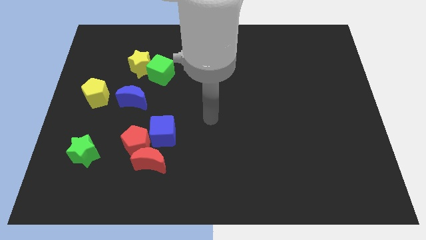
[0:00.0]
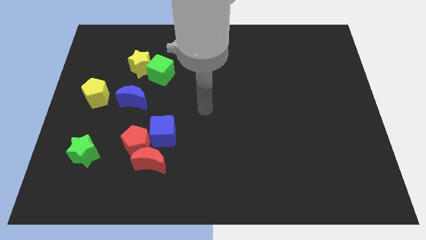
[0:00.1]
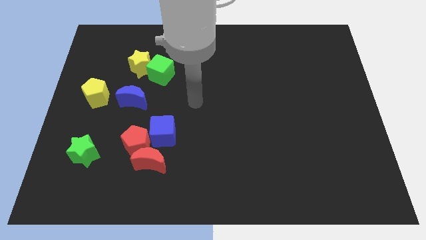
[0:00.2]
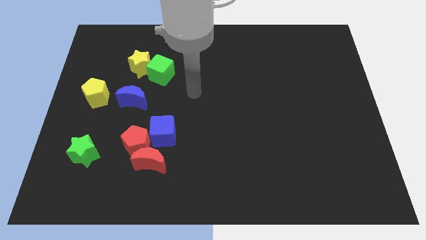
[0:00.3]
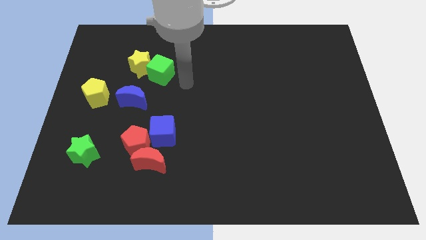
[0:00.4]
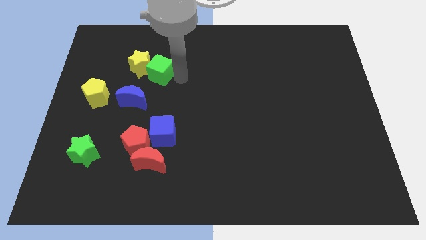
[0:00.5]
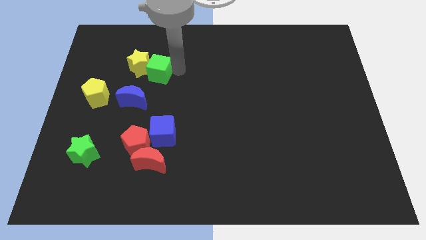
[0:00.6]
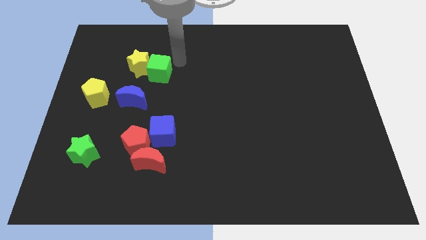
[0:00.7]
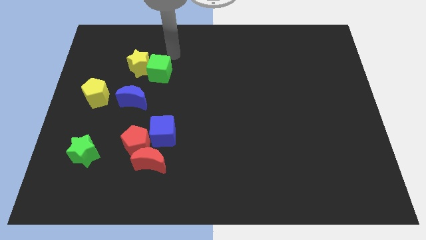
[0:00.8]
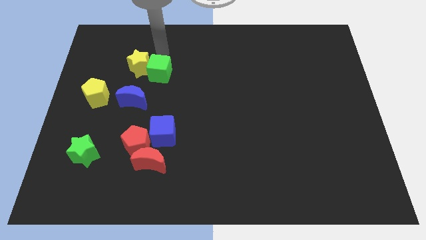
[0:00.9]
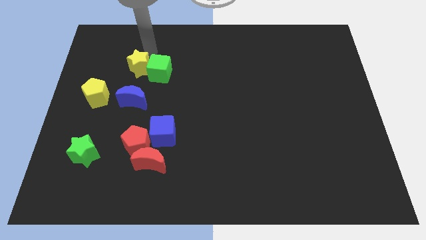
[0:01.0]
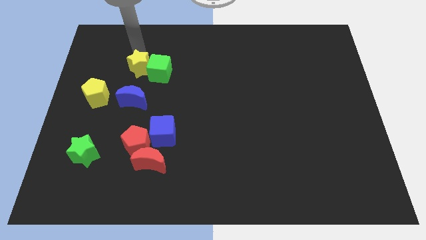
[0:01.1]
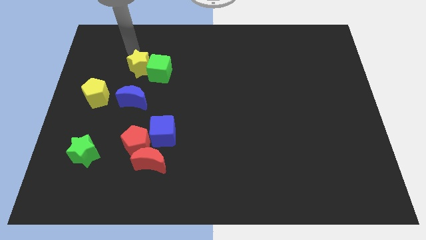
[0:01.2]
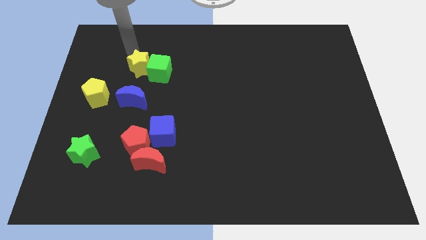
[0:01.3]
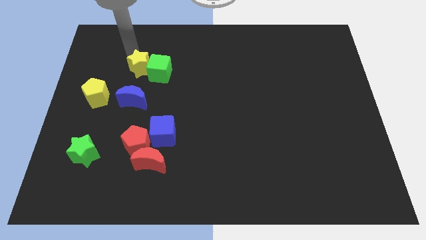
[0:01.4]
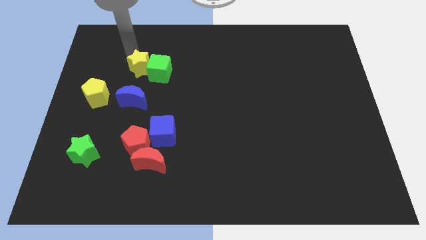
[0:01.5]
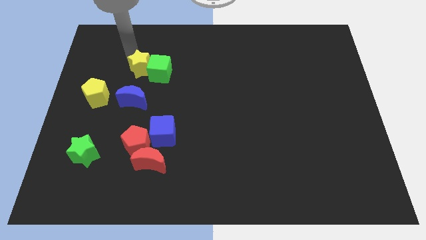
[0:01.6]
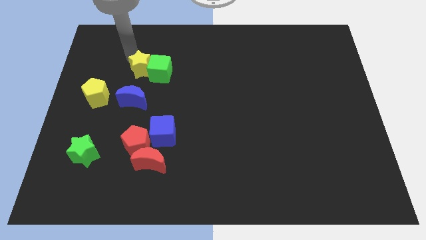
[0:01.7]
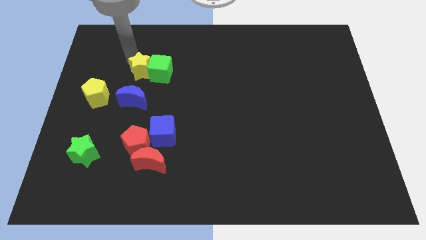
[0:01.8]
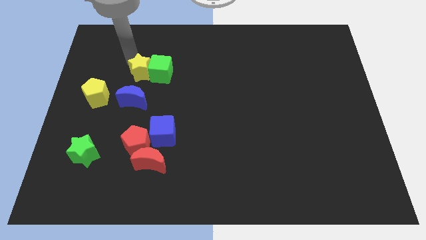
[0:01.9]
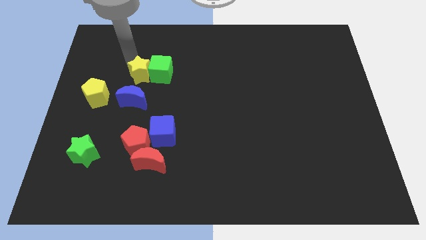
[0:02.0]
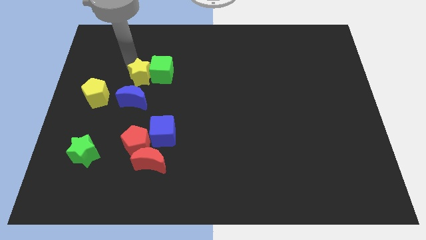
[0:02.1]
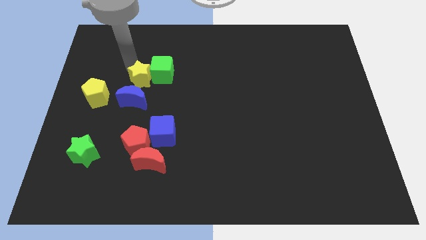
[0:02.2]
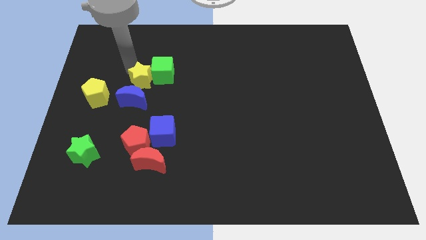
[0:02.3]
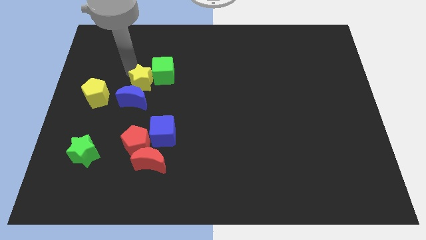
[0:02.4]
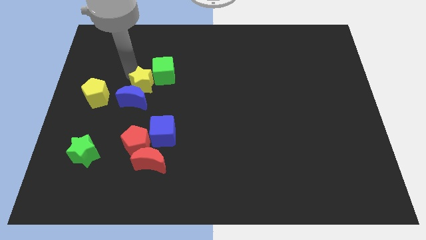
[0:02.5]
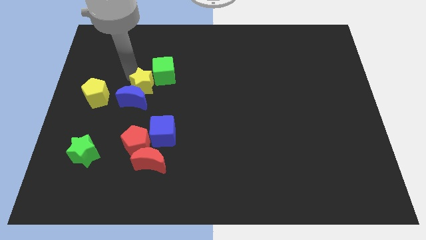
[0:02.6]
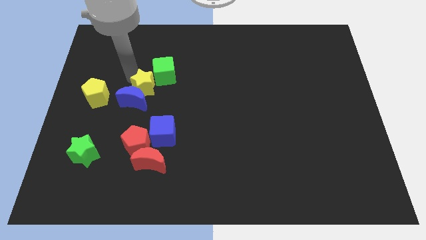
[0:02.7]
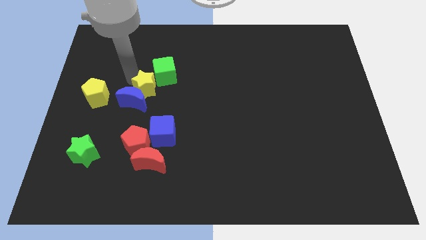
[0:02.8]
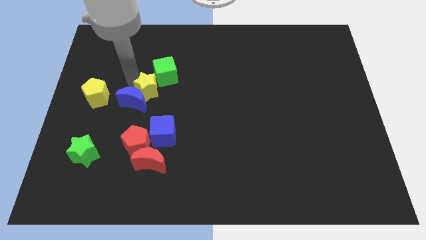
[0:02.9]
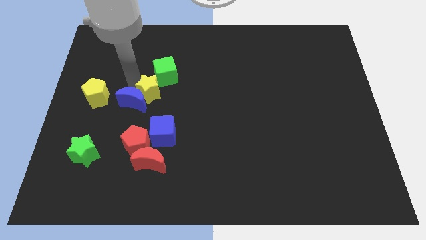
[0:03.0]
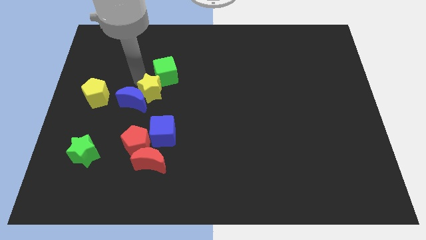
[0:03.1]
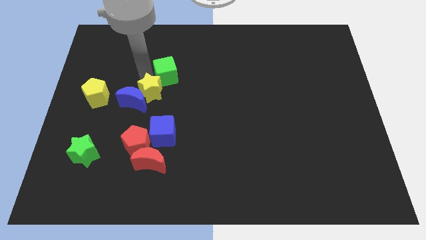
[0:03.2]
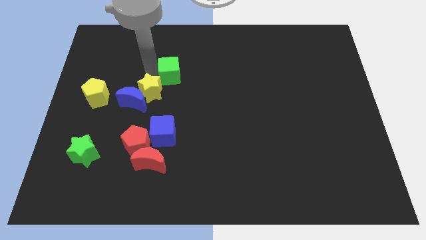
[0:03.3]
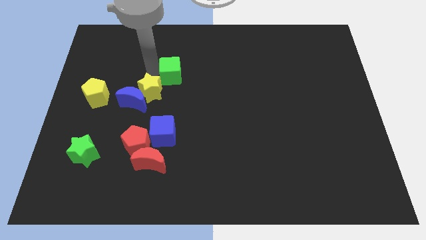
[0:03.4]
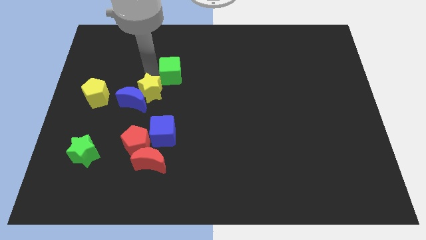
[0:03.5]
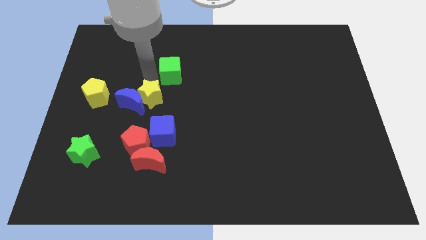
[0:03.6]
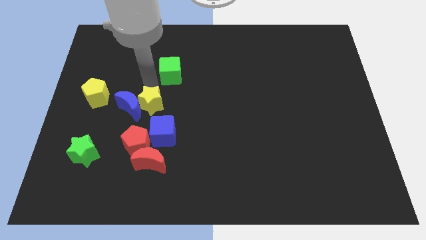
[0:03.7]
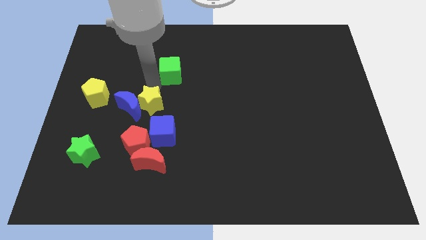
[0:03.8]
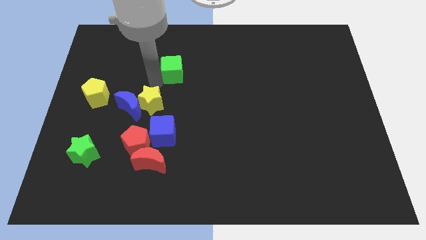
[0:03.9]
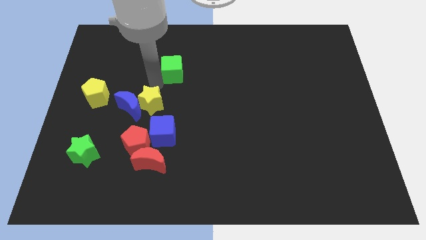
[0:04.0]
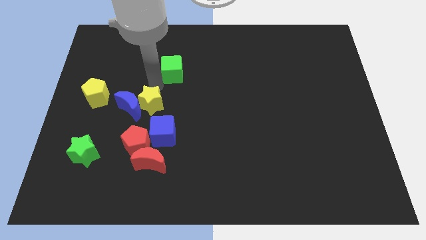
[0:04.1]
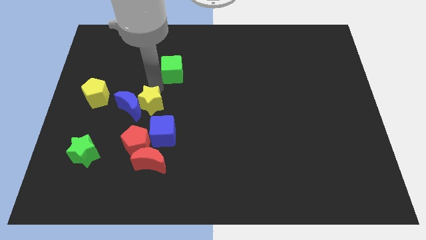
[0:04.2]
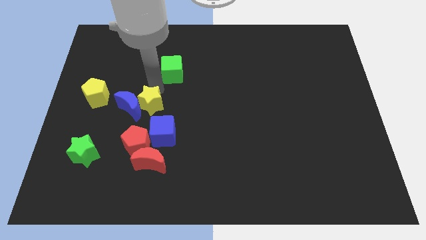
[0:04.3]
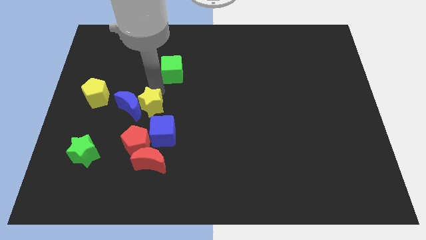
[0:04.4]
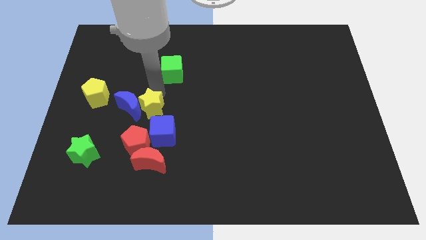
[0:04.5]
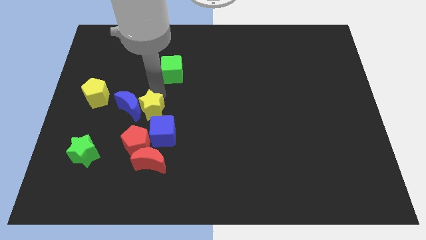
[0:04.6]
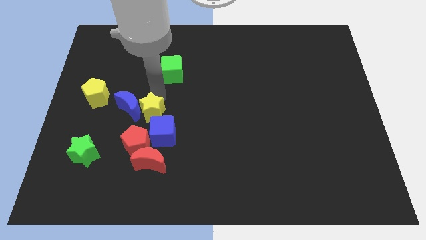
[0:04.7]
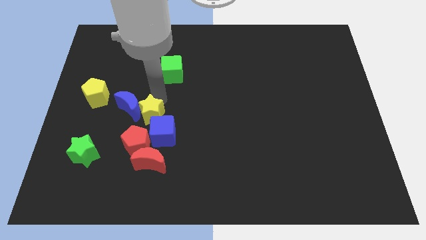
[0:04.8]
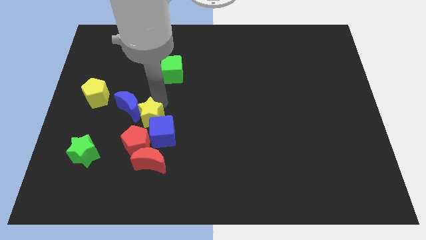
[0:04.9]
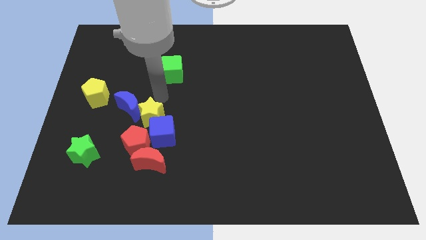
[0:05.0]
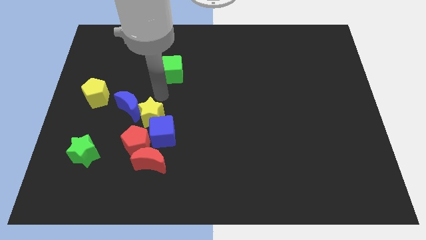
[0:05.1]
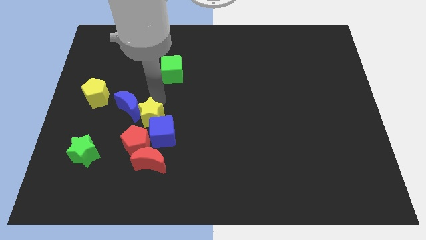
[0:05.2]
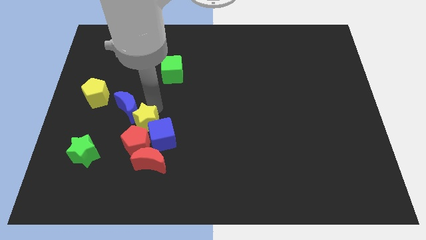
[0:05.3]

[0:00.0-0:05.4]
move the yellow star next to the red pentagon

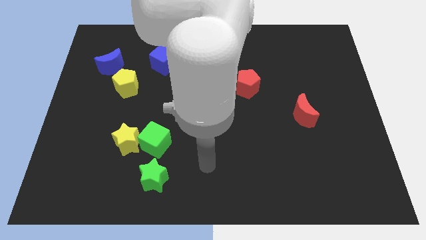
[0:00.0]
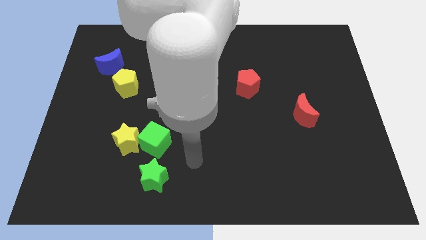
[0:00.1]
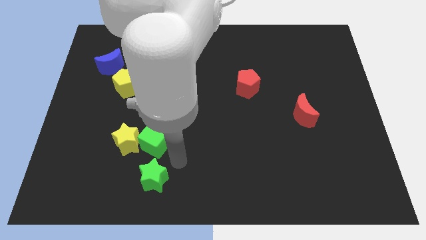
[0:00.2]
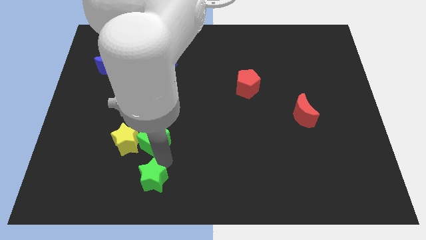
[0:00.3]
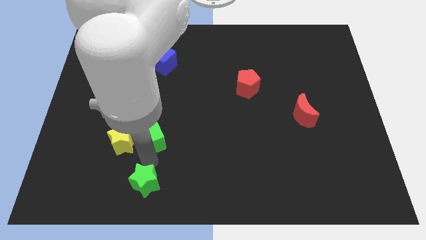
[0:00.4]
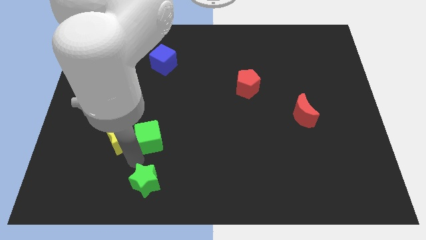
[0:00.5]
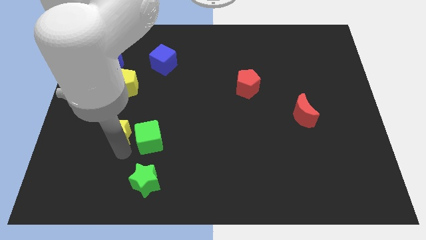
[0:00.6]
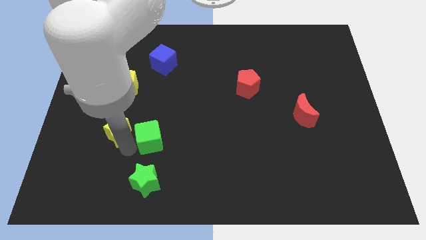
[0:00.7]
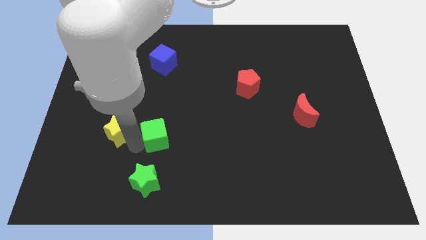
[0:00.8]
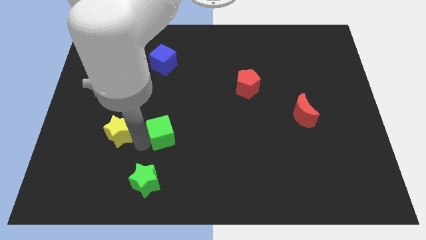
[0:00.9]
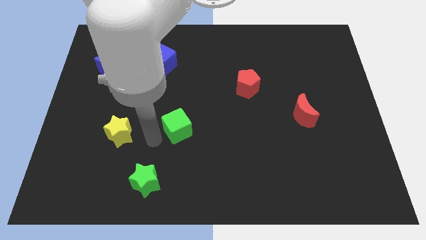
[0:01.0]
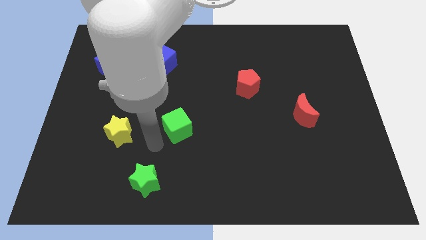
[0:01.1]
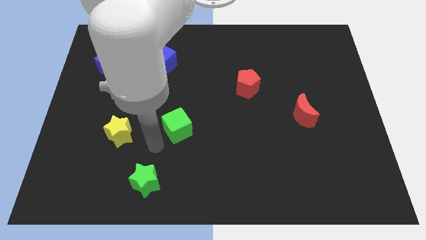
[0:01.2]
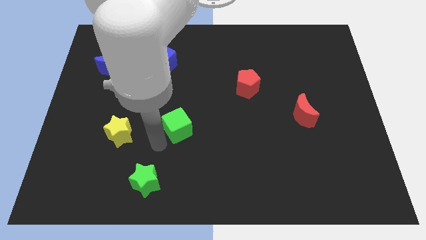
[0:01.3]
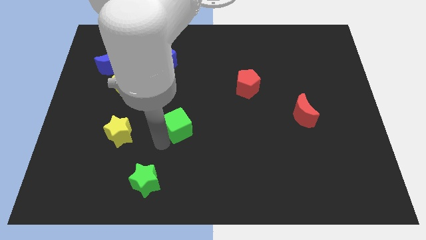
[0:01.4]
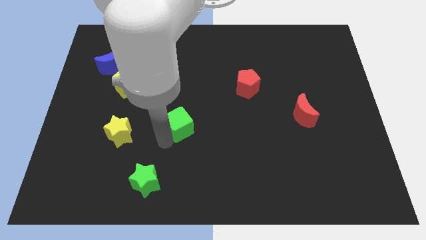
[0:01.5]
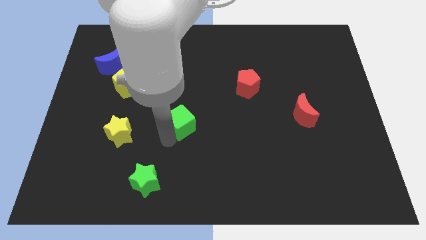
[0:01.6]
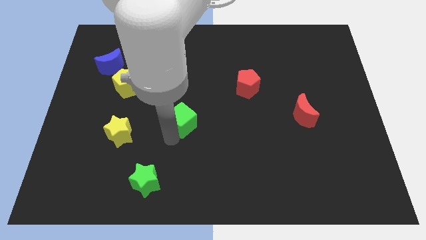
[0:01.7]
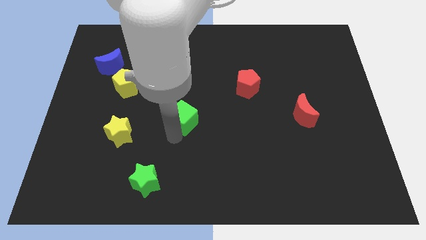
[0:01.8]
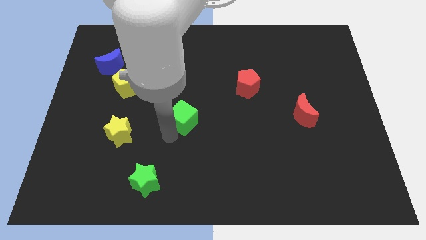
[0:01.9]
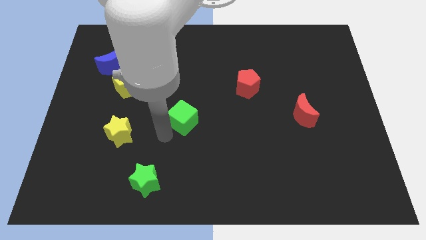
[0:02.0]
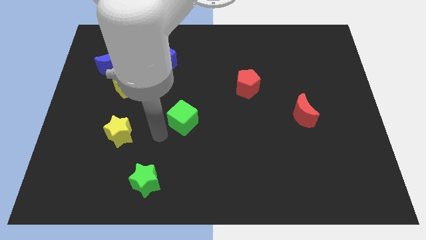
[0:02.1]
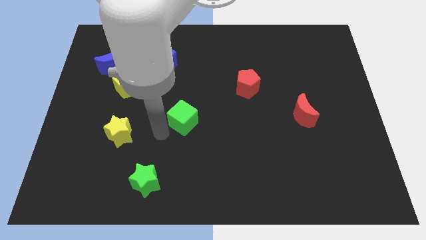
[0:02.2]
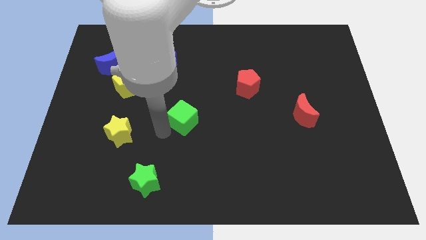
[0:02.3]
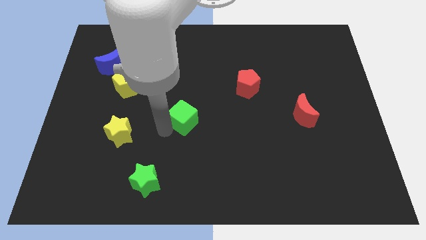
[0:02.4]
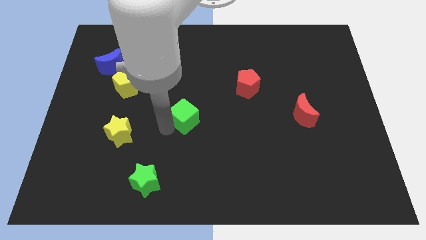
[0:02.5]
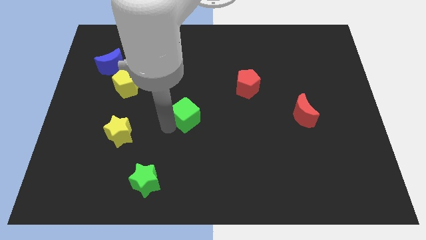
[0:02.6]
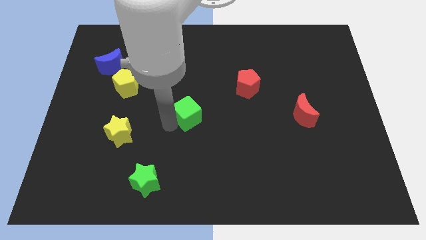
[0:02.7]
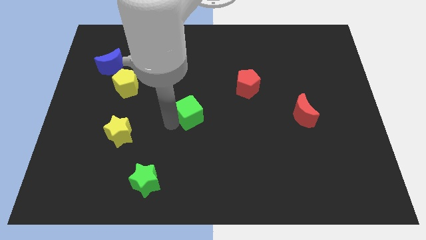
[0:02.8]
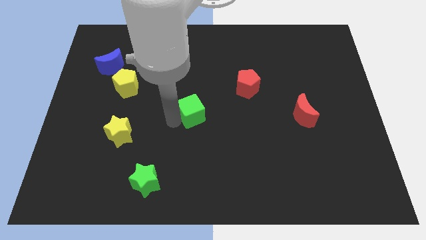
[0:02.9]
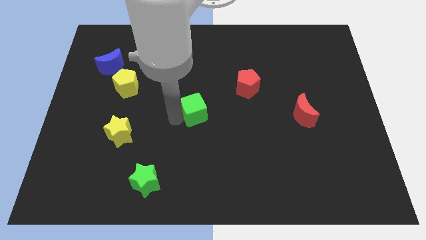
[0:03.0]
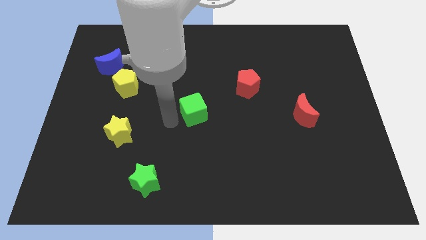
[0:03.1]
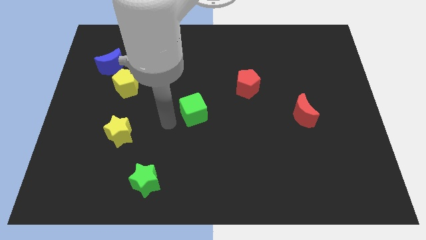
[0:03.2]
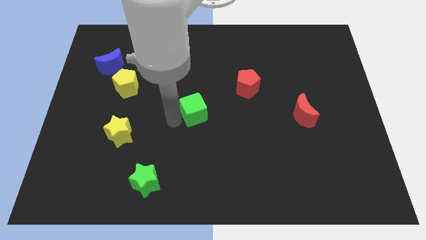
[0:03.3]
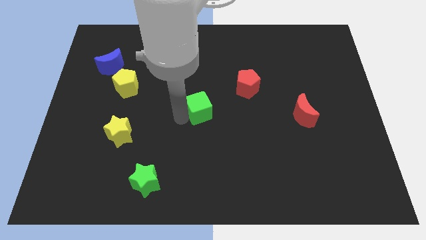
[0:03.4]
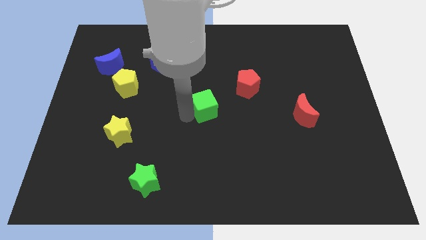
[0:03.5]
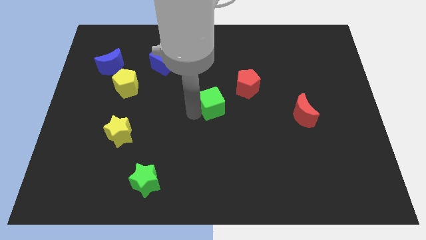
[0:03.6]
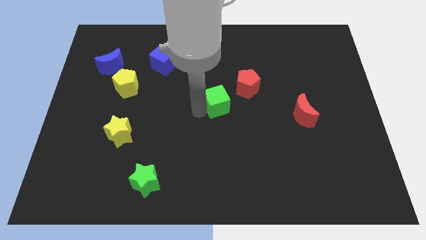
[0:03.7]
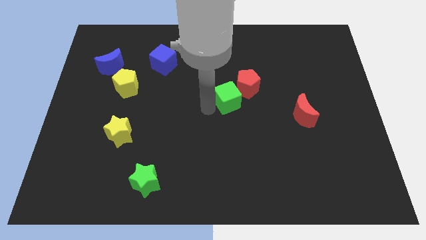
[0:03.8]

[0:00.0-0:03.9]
push the green cube next to the red pentagon
